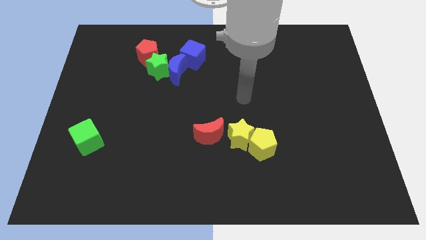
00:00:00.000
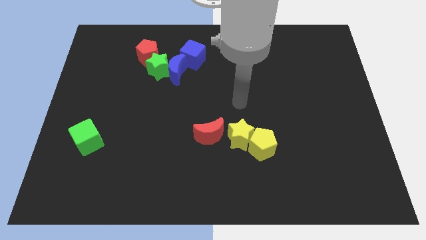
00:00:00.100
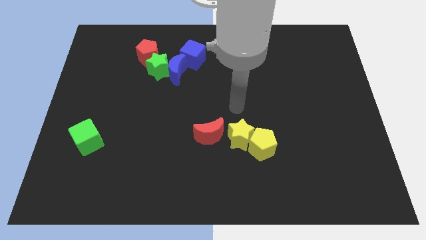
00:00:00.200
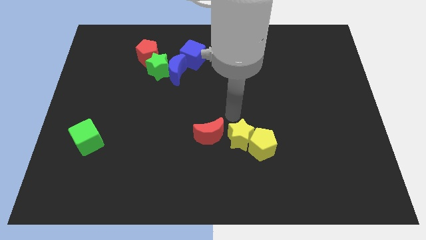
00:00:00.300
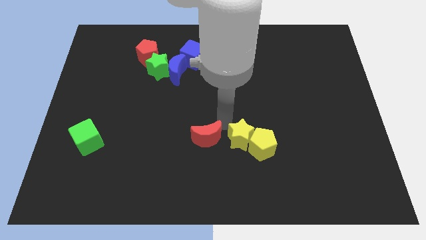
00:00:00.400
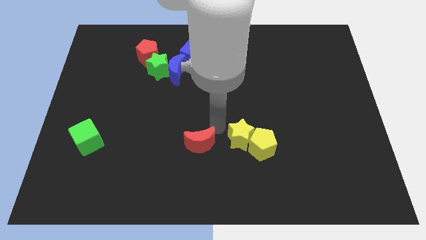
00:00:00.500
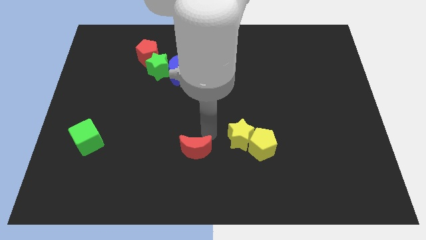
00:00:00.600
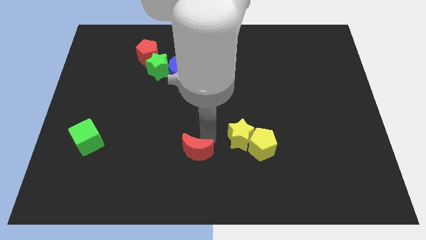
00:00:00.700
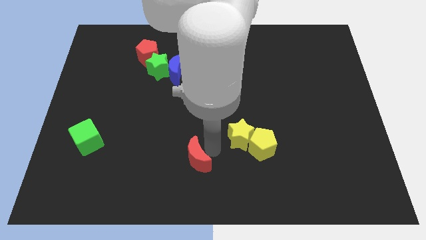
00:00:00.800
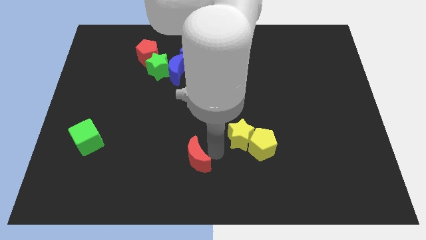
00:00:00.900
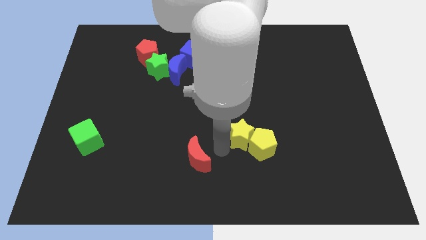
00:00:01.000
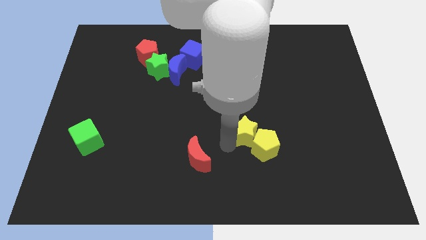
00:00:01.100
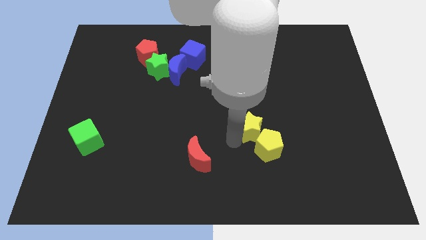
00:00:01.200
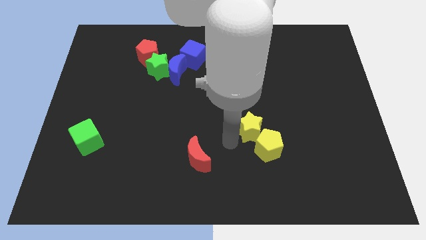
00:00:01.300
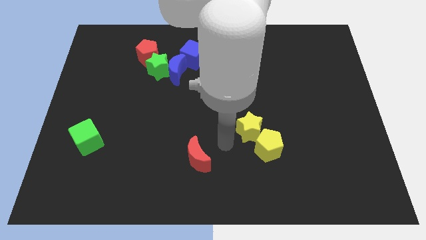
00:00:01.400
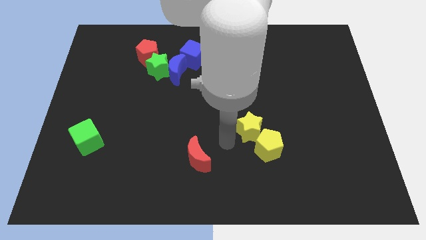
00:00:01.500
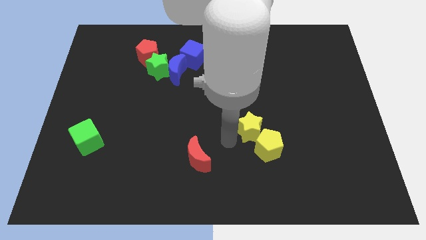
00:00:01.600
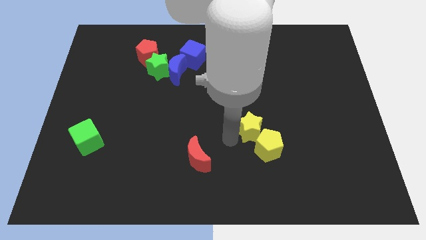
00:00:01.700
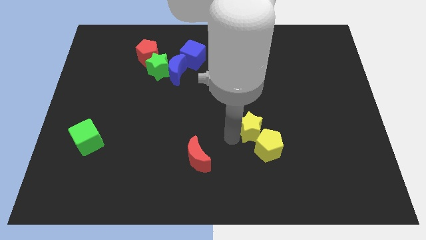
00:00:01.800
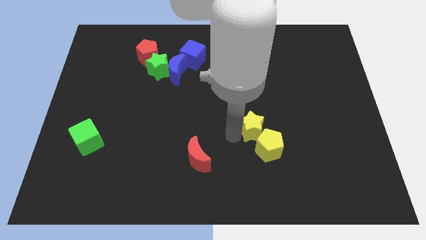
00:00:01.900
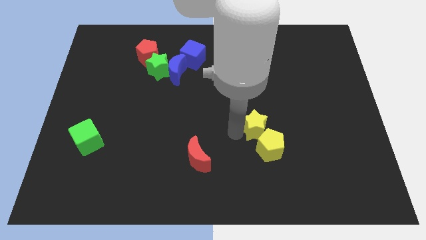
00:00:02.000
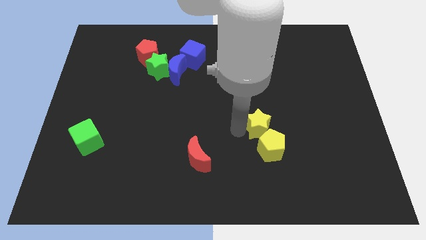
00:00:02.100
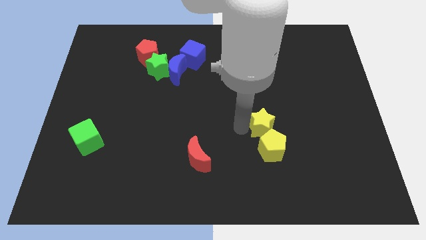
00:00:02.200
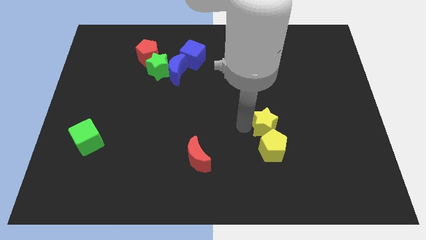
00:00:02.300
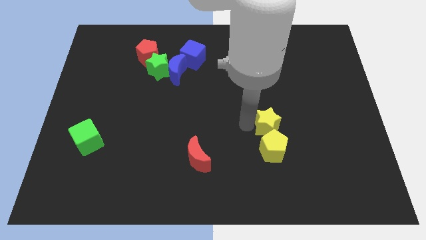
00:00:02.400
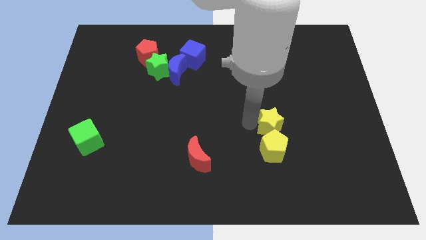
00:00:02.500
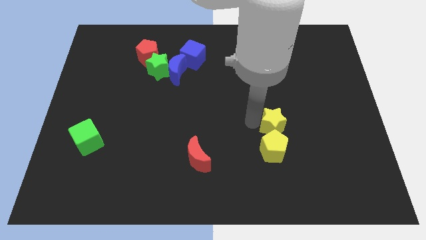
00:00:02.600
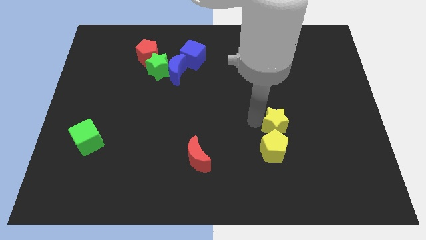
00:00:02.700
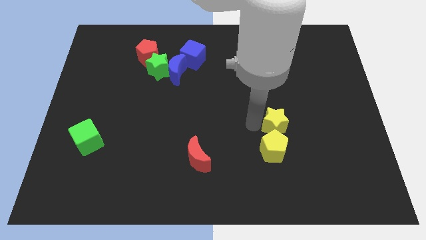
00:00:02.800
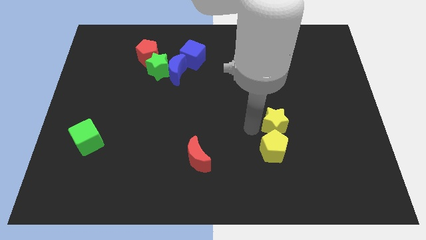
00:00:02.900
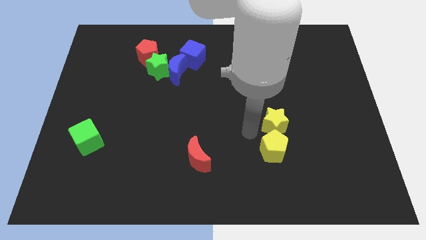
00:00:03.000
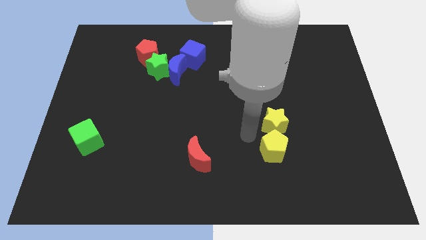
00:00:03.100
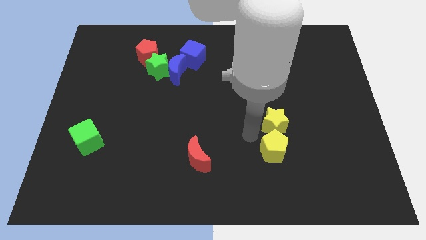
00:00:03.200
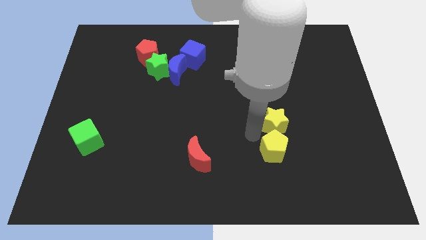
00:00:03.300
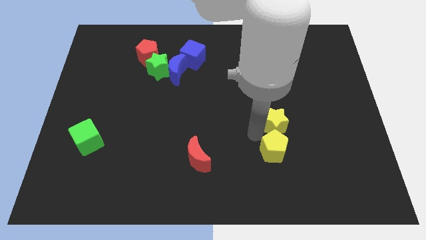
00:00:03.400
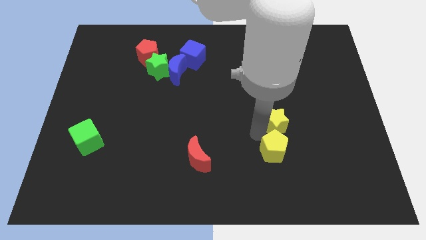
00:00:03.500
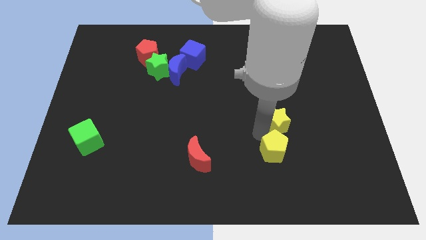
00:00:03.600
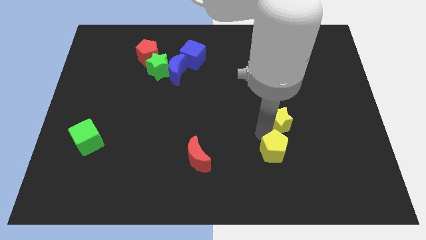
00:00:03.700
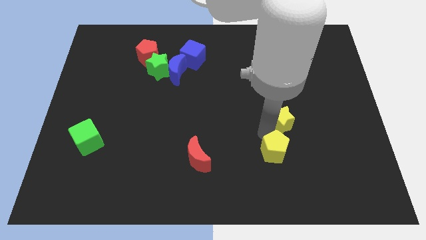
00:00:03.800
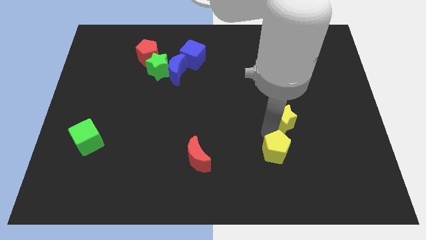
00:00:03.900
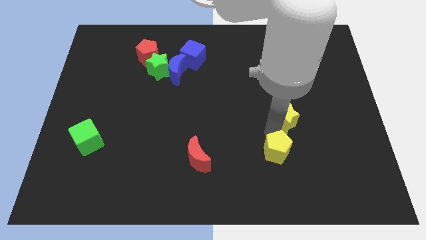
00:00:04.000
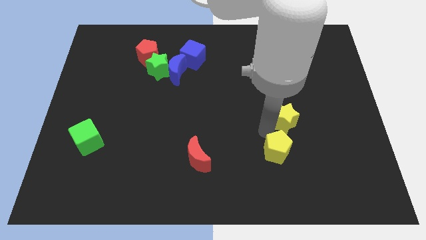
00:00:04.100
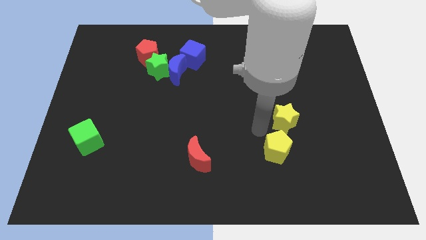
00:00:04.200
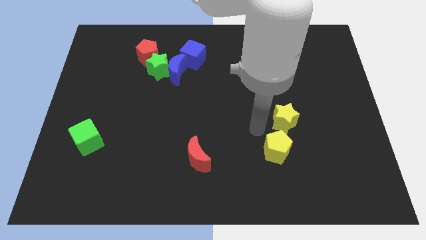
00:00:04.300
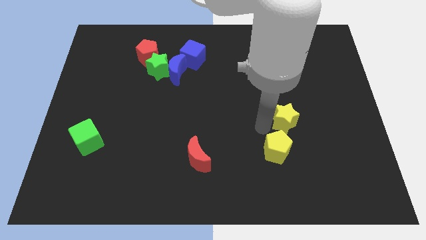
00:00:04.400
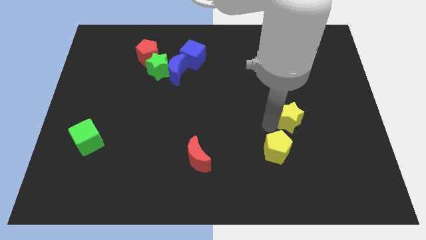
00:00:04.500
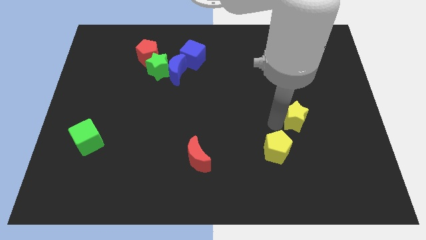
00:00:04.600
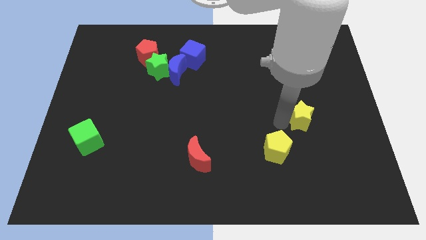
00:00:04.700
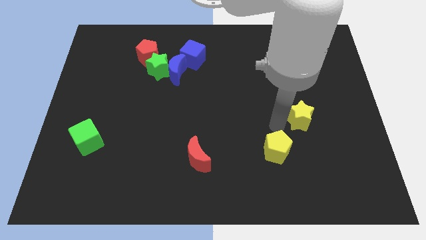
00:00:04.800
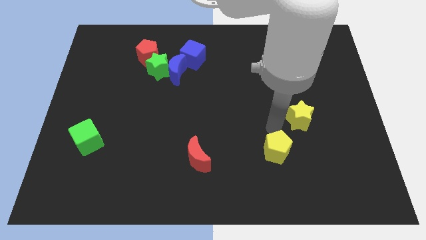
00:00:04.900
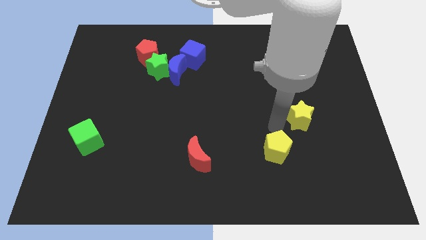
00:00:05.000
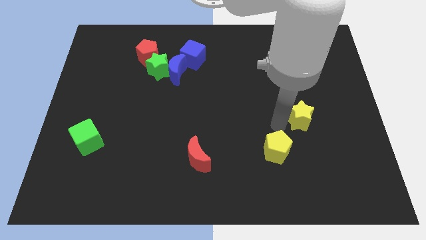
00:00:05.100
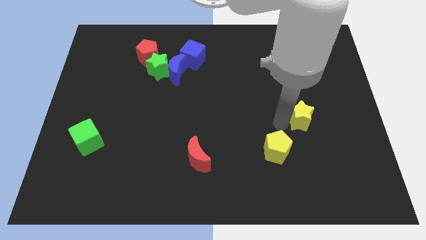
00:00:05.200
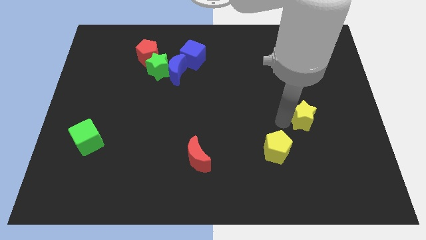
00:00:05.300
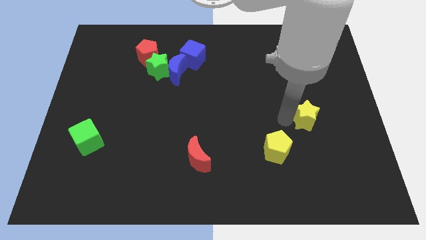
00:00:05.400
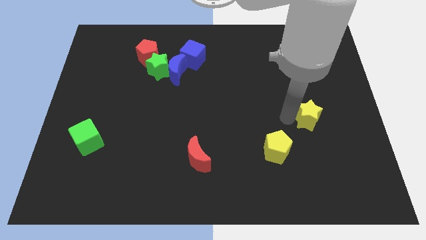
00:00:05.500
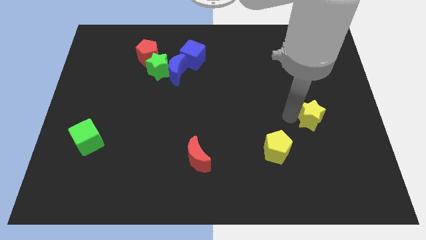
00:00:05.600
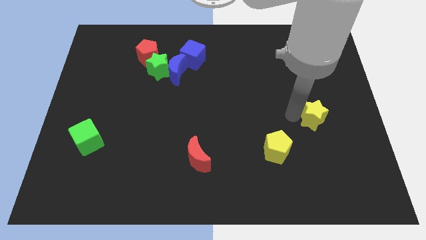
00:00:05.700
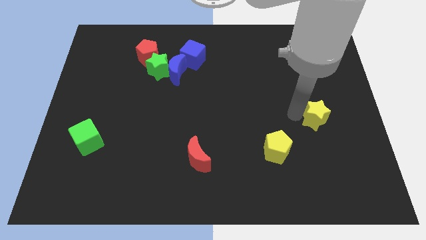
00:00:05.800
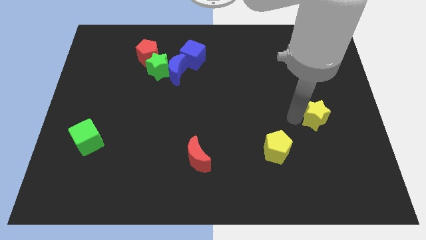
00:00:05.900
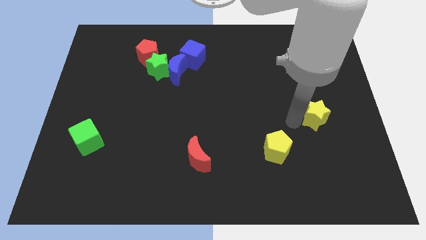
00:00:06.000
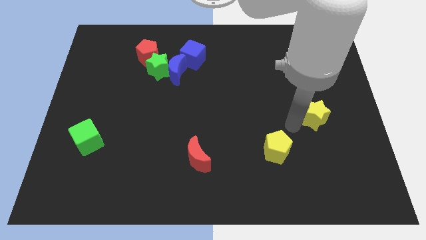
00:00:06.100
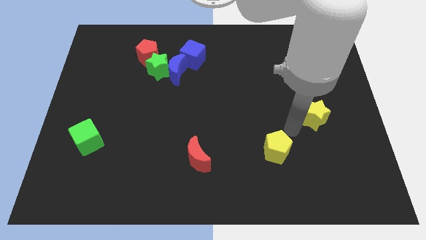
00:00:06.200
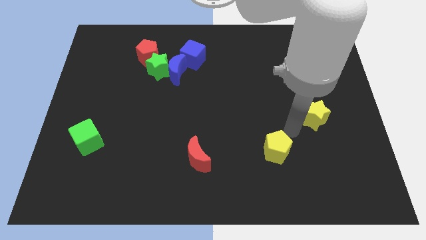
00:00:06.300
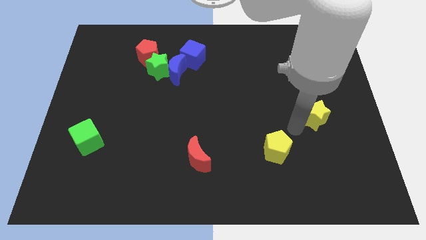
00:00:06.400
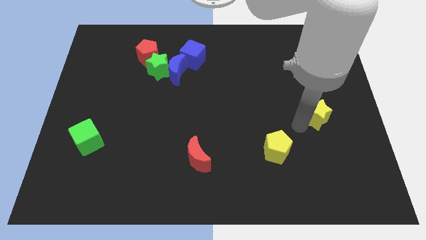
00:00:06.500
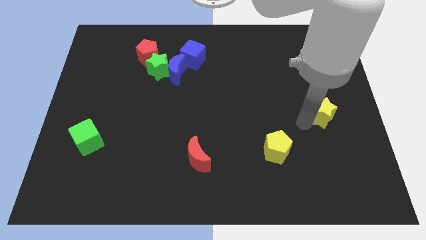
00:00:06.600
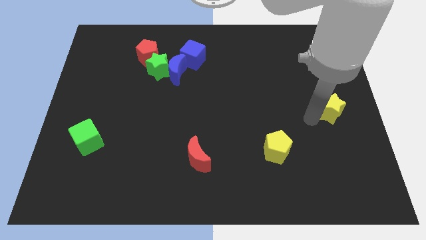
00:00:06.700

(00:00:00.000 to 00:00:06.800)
put the yellow star to the right side
